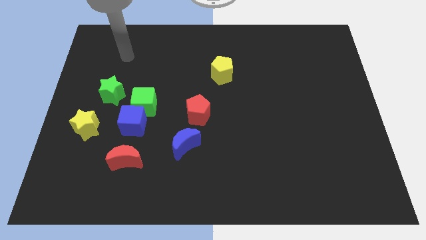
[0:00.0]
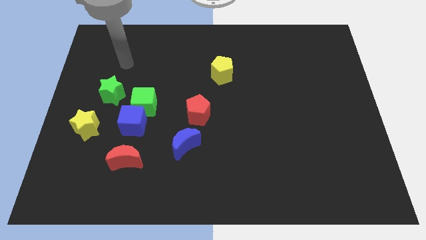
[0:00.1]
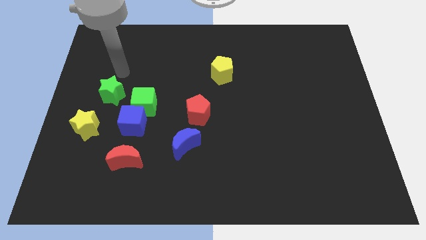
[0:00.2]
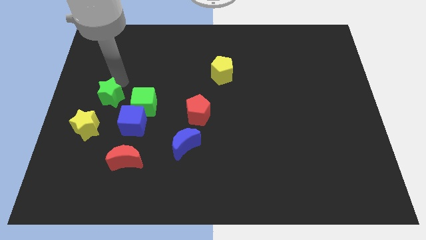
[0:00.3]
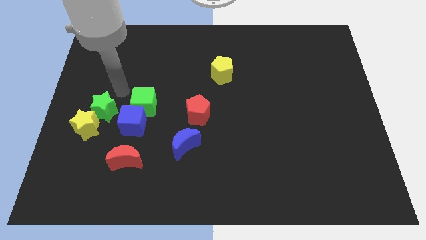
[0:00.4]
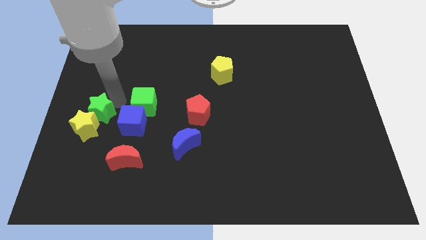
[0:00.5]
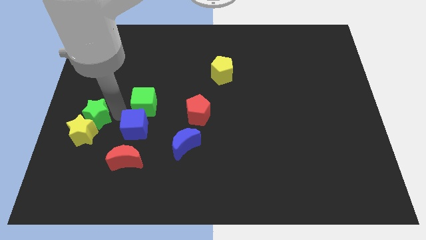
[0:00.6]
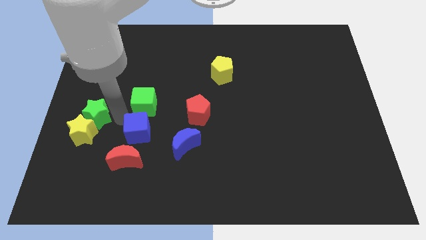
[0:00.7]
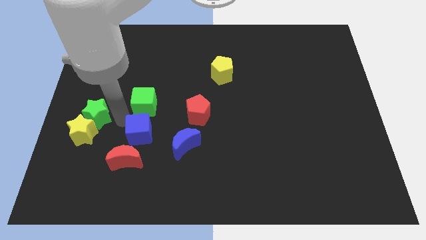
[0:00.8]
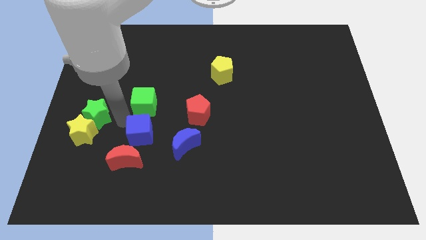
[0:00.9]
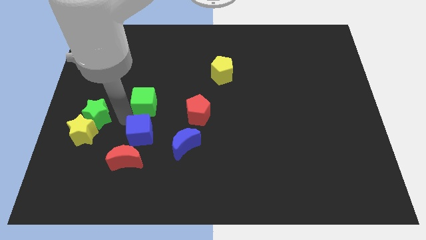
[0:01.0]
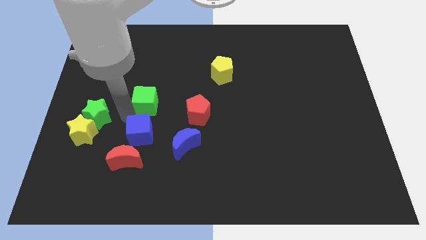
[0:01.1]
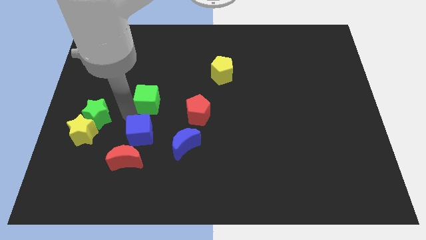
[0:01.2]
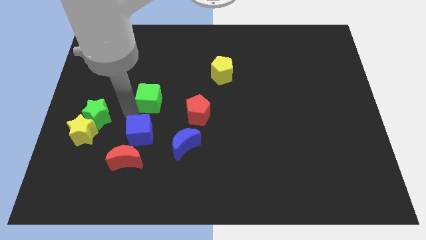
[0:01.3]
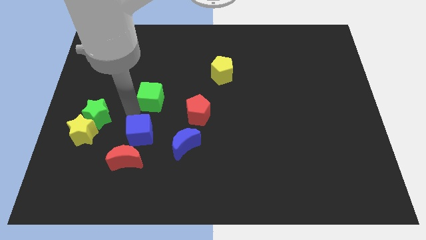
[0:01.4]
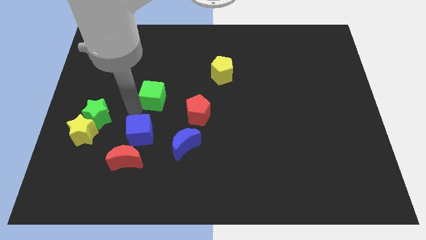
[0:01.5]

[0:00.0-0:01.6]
pull the green cube apart from the blue cube and green star

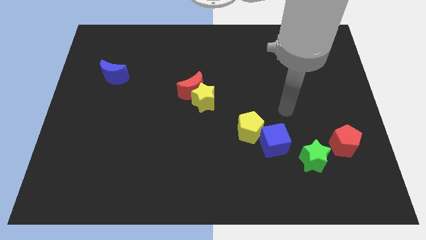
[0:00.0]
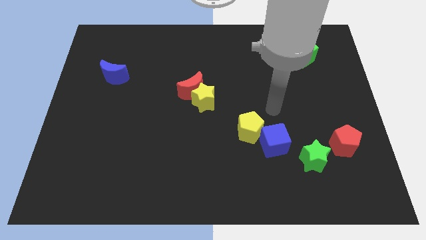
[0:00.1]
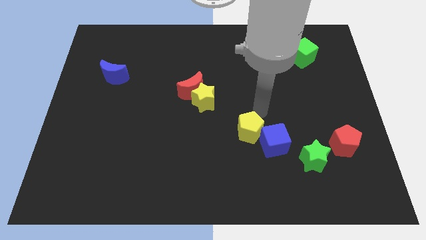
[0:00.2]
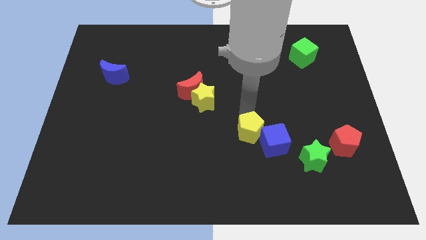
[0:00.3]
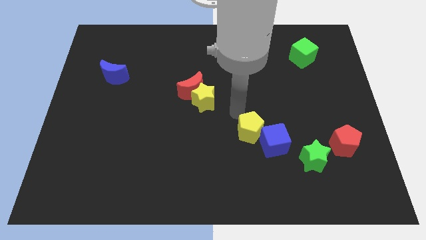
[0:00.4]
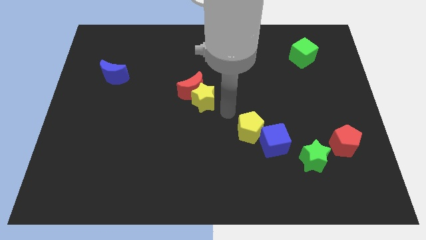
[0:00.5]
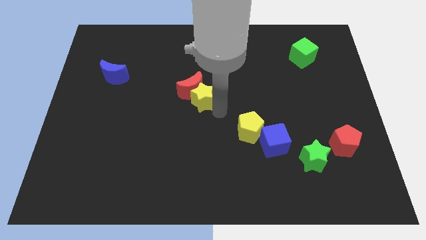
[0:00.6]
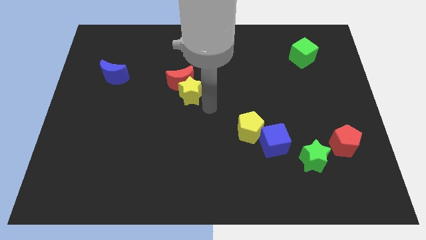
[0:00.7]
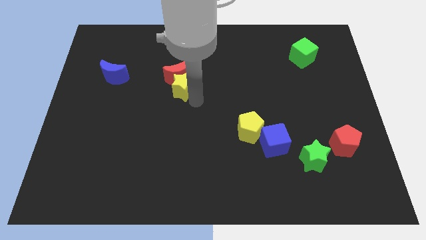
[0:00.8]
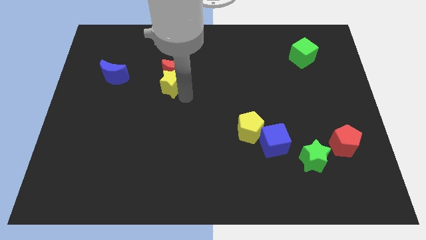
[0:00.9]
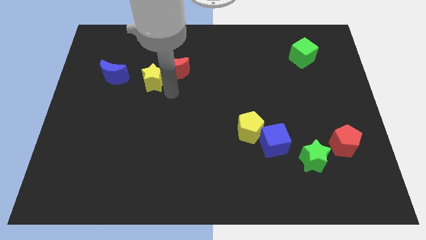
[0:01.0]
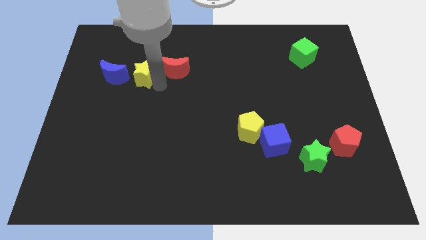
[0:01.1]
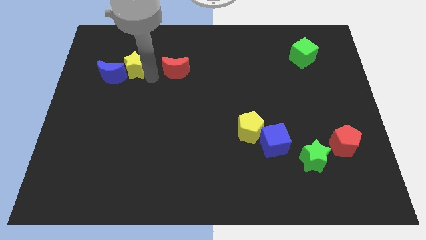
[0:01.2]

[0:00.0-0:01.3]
separate the red moon from the yellow star

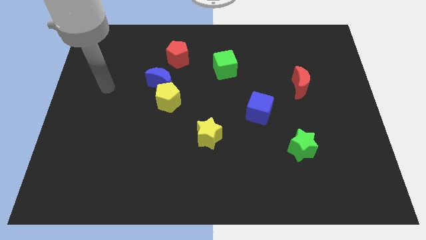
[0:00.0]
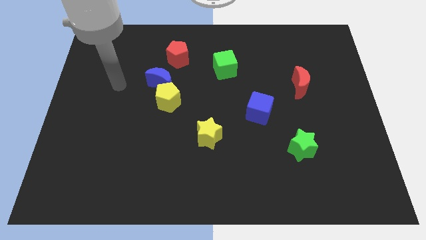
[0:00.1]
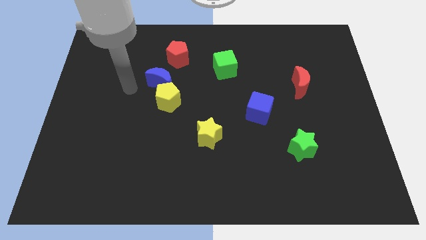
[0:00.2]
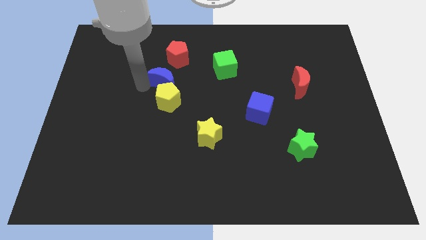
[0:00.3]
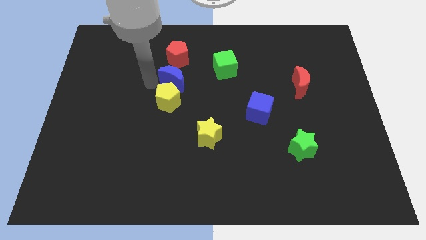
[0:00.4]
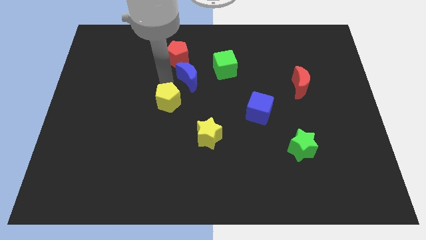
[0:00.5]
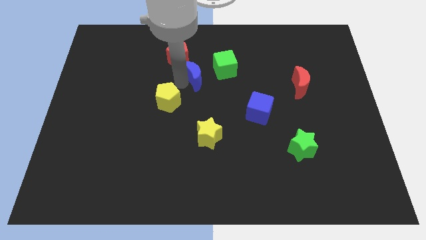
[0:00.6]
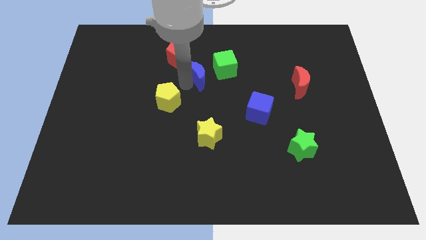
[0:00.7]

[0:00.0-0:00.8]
pull the yellow pentagon apart from the blue moon

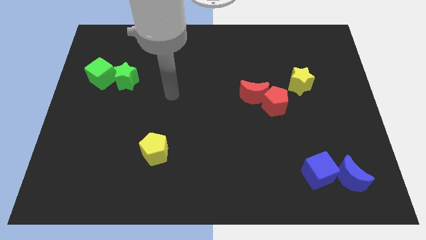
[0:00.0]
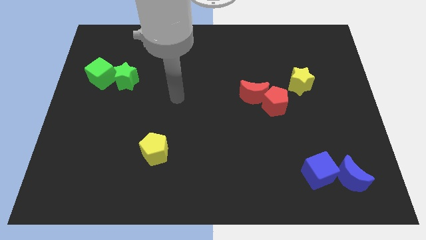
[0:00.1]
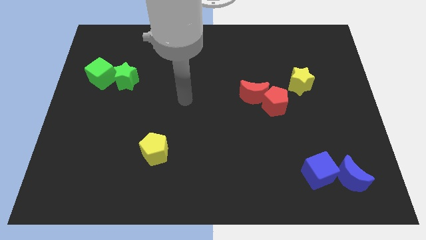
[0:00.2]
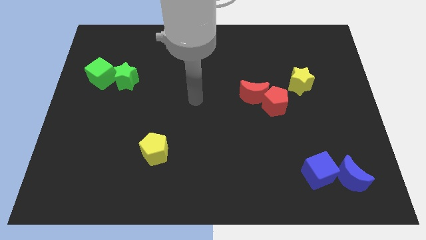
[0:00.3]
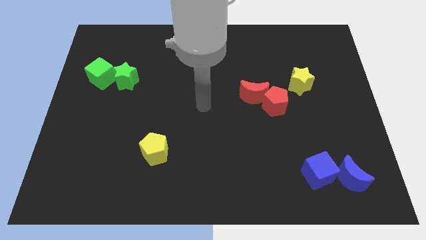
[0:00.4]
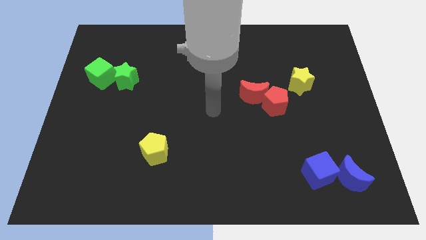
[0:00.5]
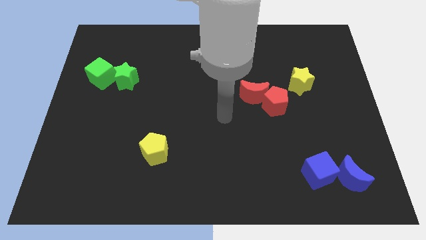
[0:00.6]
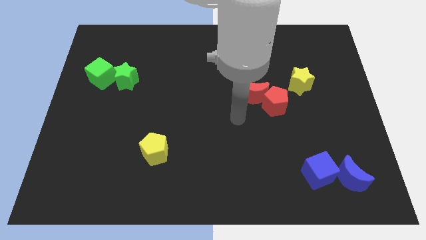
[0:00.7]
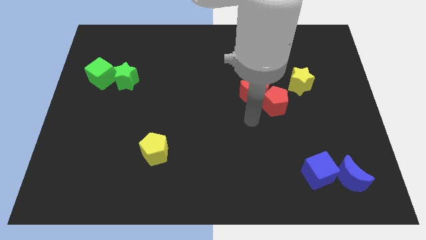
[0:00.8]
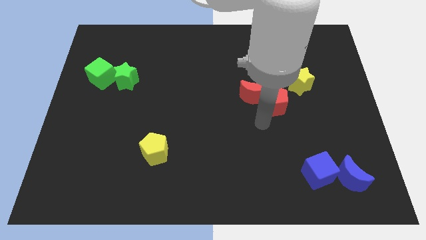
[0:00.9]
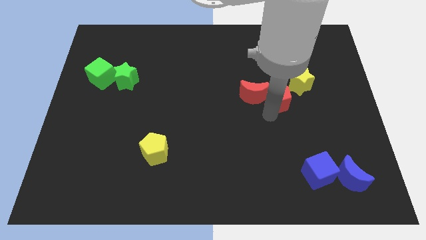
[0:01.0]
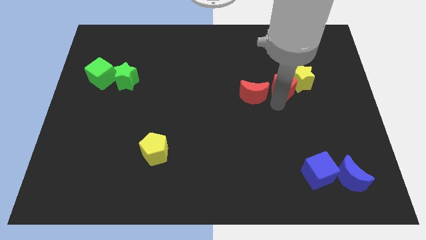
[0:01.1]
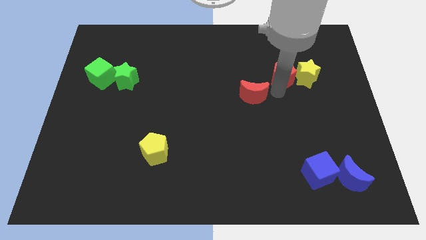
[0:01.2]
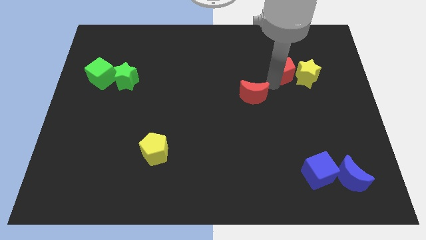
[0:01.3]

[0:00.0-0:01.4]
move the red moon away from the red pentagon

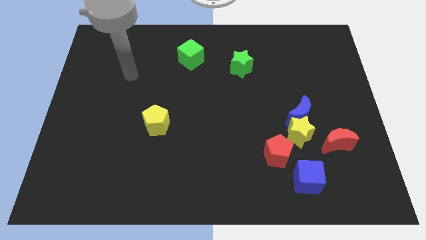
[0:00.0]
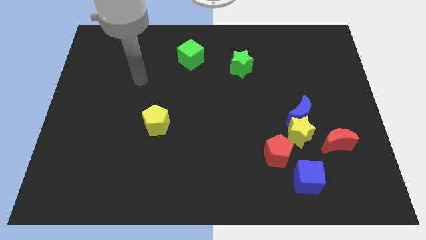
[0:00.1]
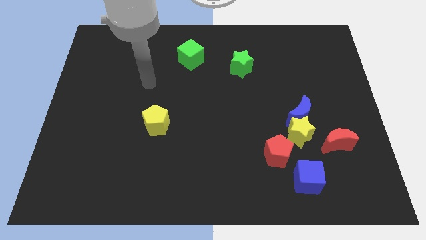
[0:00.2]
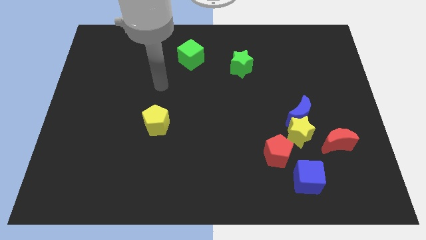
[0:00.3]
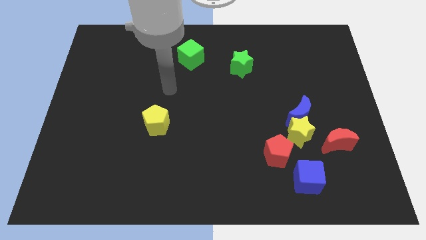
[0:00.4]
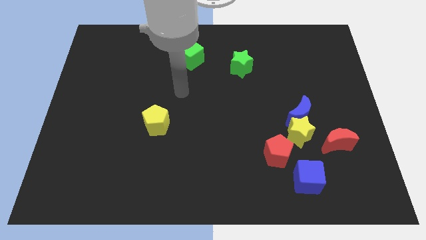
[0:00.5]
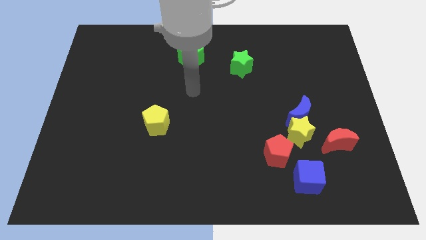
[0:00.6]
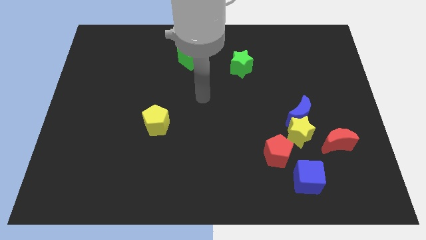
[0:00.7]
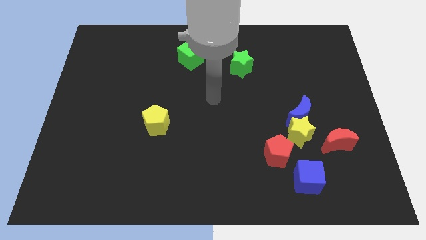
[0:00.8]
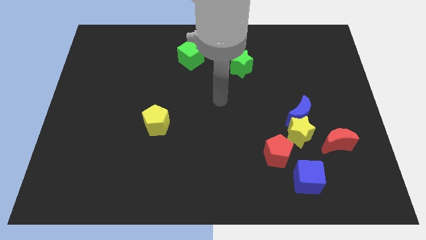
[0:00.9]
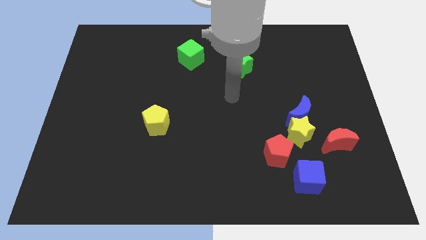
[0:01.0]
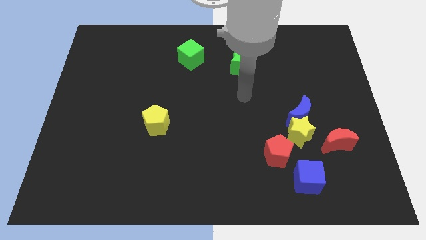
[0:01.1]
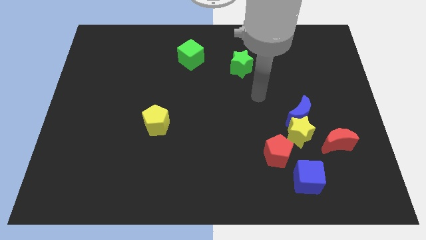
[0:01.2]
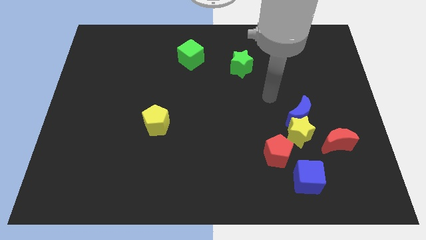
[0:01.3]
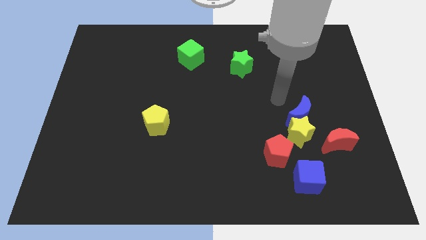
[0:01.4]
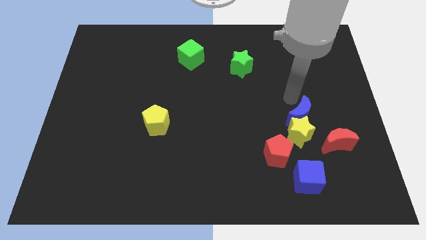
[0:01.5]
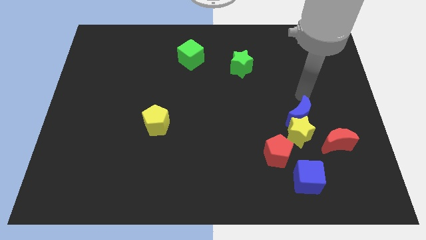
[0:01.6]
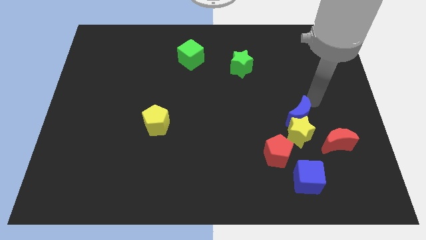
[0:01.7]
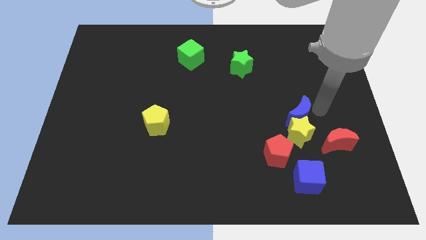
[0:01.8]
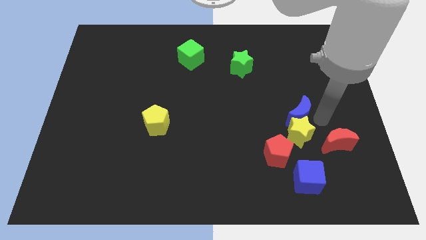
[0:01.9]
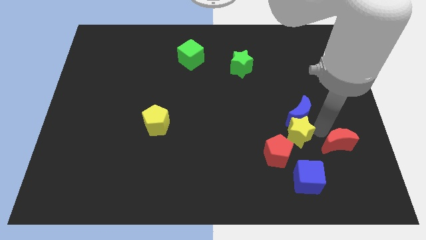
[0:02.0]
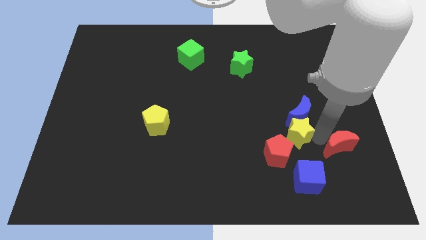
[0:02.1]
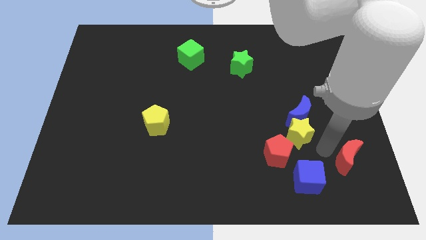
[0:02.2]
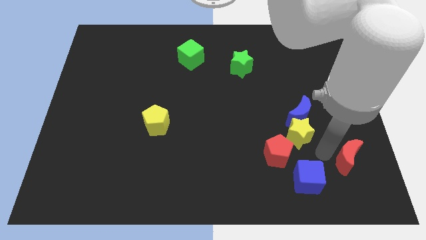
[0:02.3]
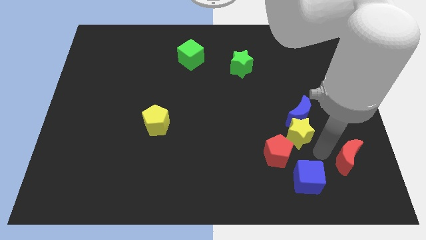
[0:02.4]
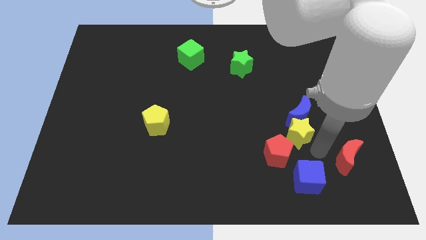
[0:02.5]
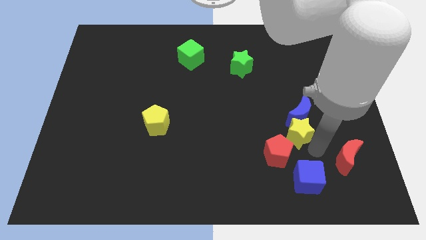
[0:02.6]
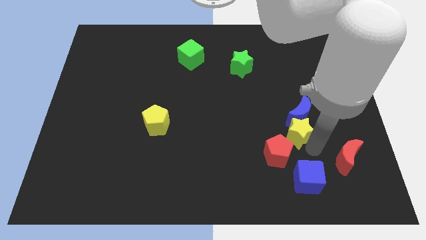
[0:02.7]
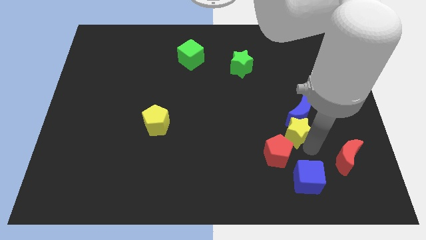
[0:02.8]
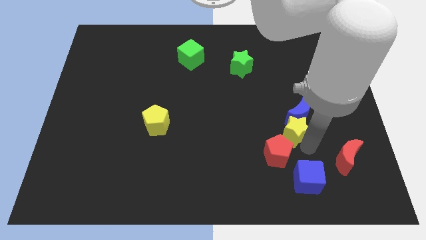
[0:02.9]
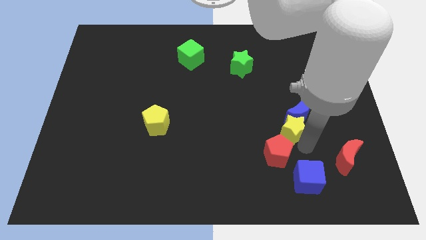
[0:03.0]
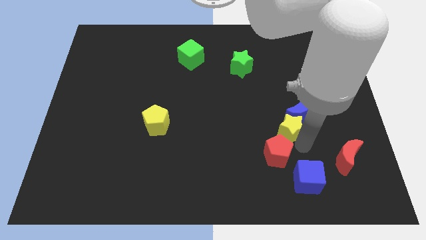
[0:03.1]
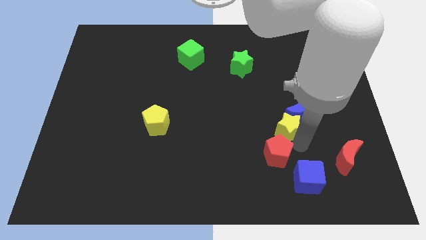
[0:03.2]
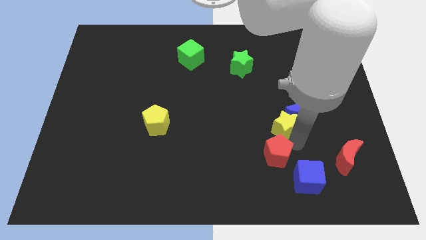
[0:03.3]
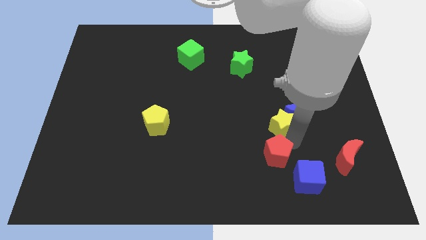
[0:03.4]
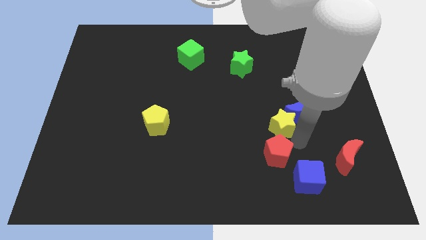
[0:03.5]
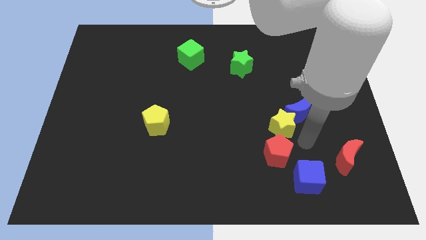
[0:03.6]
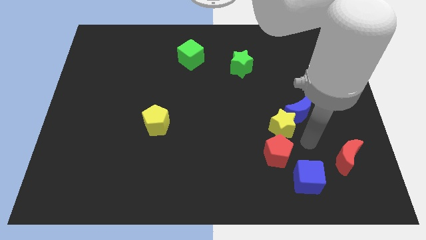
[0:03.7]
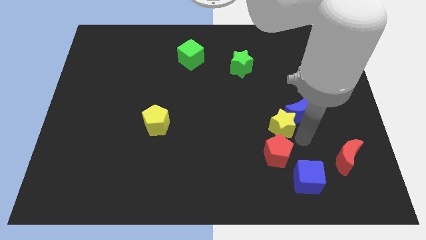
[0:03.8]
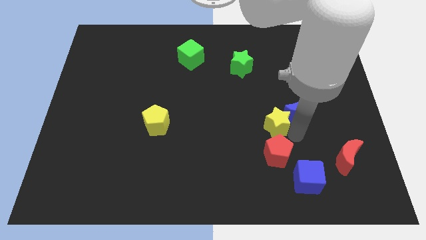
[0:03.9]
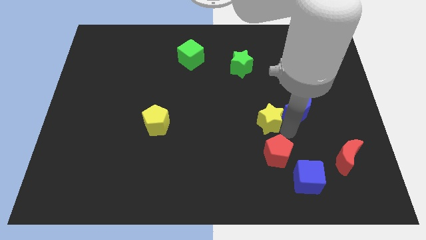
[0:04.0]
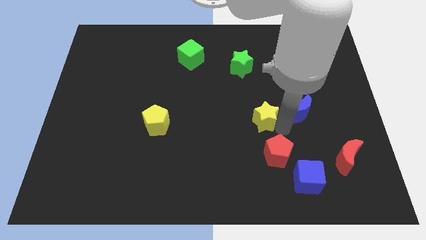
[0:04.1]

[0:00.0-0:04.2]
separate the yellow star from the group of blocks
